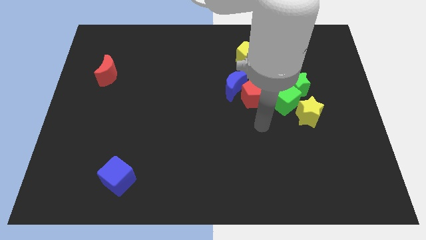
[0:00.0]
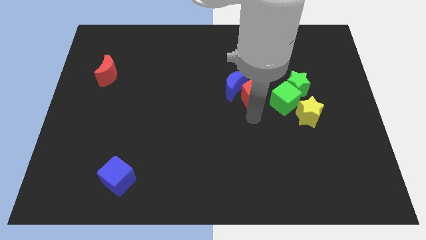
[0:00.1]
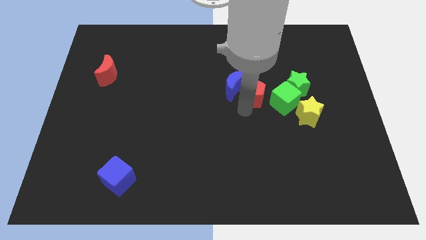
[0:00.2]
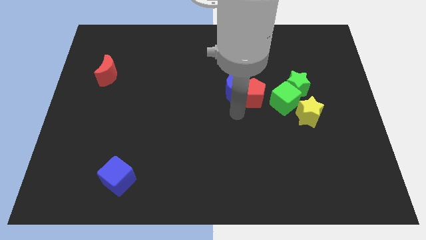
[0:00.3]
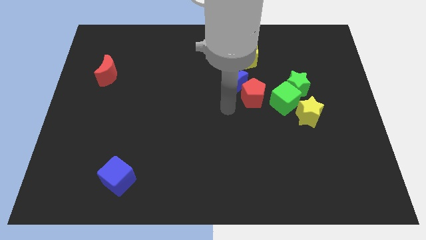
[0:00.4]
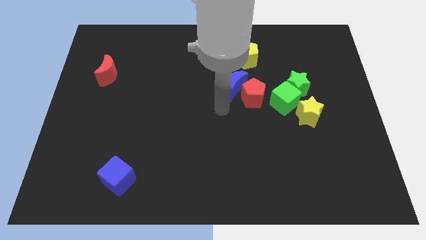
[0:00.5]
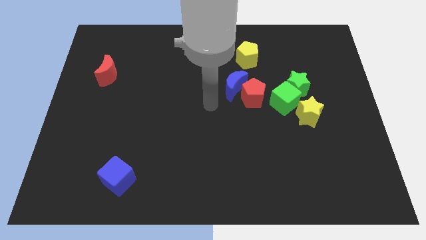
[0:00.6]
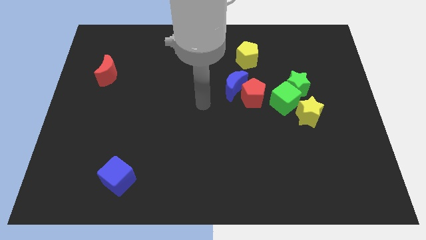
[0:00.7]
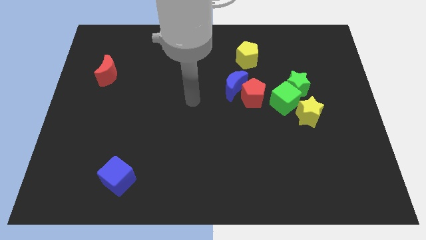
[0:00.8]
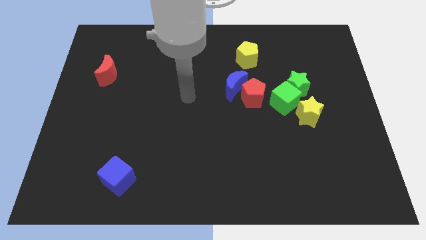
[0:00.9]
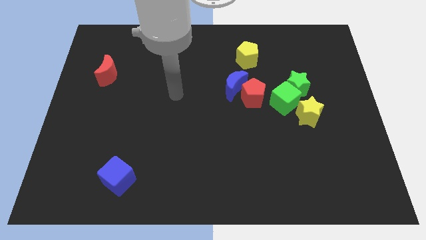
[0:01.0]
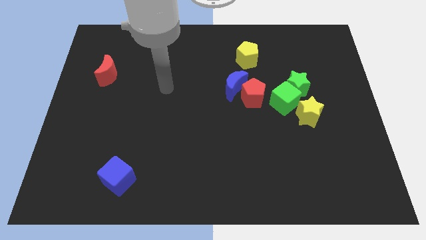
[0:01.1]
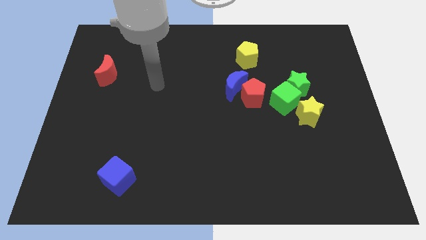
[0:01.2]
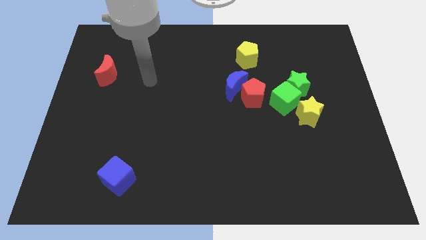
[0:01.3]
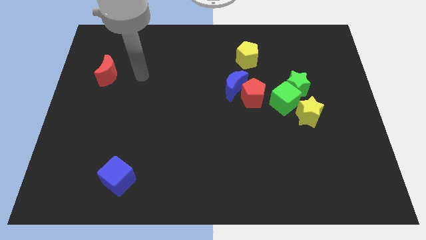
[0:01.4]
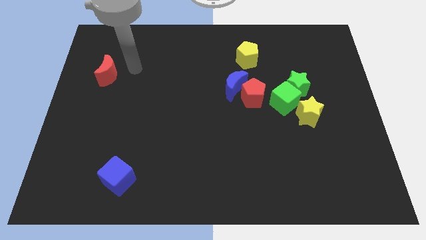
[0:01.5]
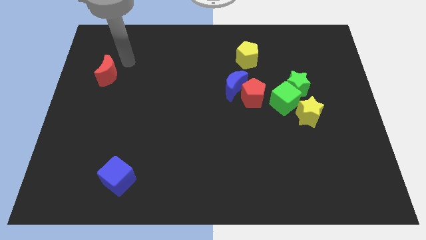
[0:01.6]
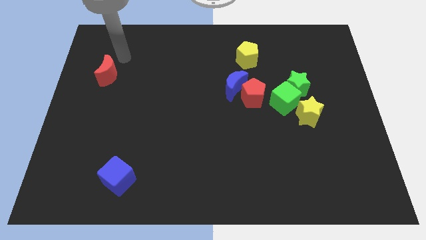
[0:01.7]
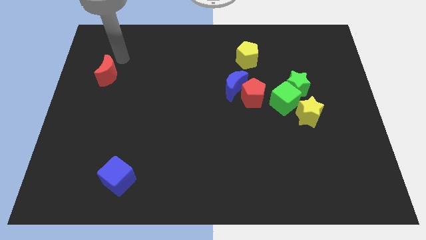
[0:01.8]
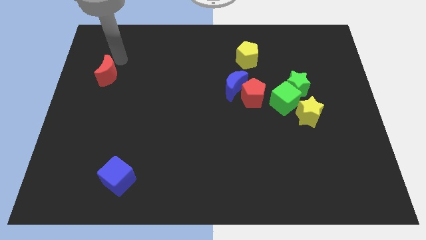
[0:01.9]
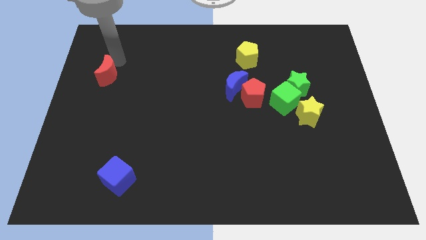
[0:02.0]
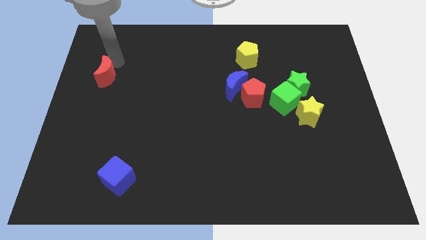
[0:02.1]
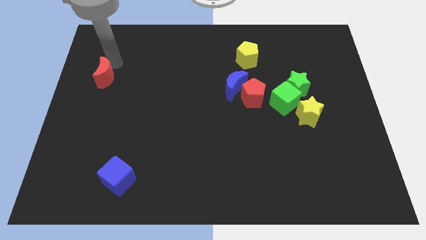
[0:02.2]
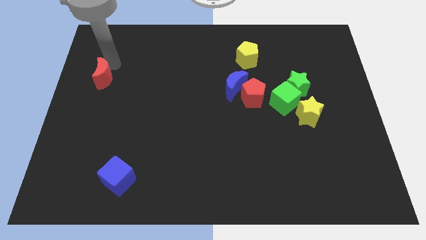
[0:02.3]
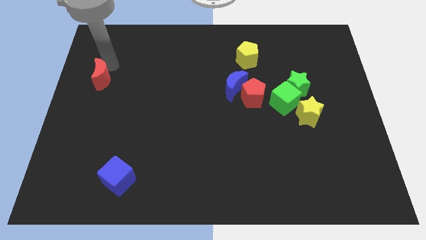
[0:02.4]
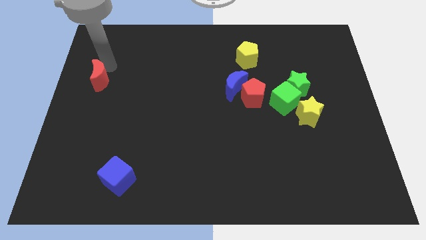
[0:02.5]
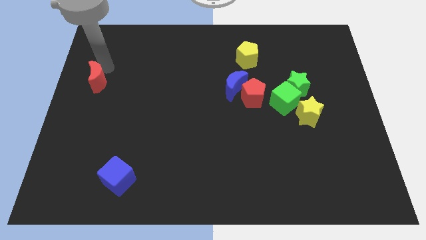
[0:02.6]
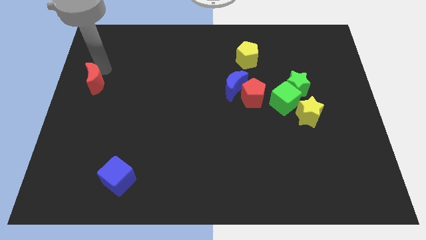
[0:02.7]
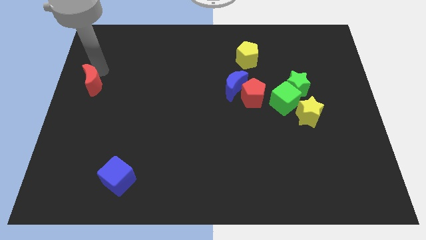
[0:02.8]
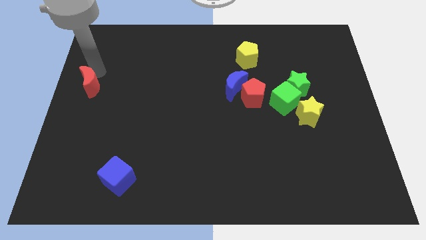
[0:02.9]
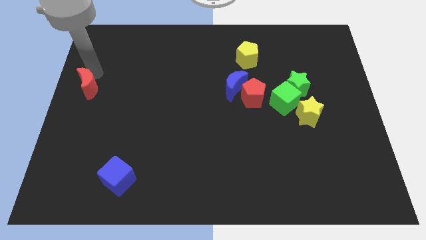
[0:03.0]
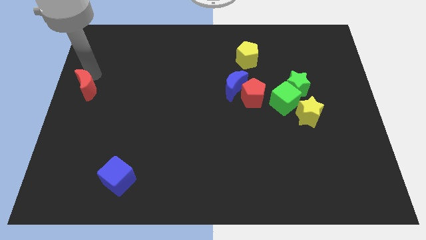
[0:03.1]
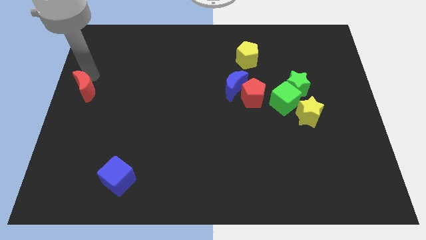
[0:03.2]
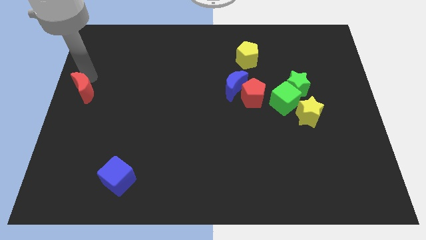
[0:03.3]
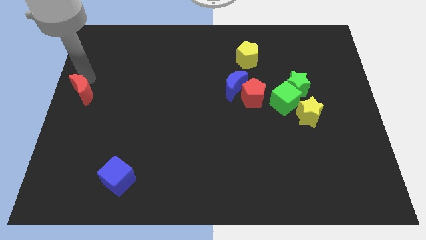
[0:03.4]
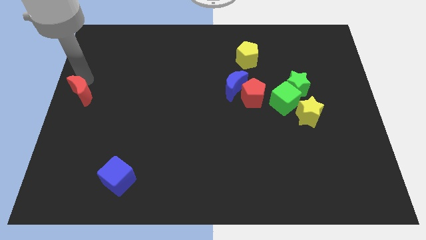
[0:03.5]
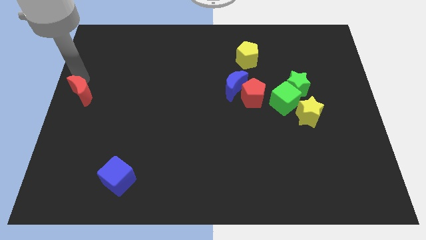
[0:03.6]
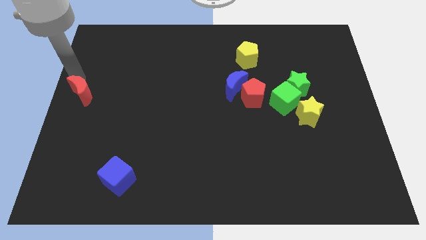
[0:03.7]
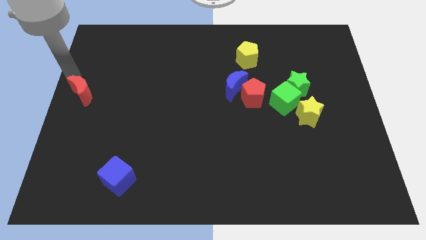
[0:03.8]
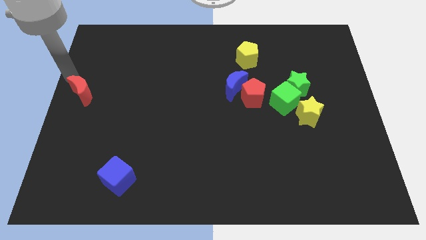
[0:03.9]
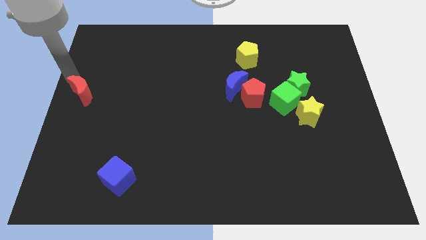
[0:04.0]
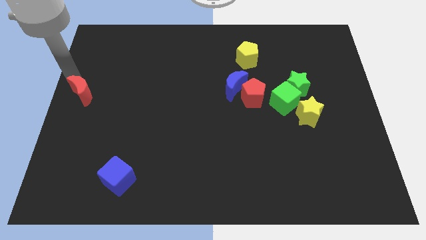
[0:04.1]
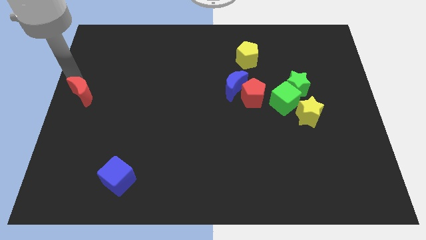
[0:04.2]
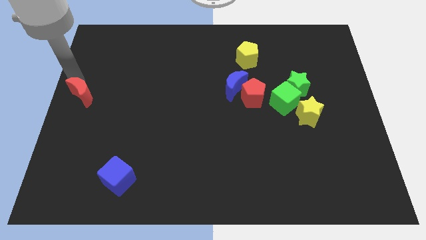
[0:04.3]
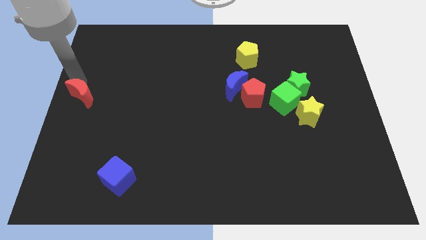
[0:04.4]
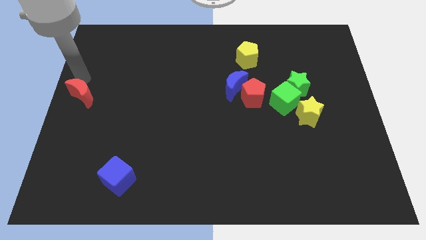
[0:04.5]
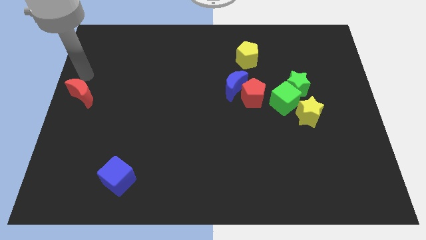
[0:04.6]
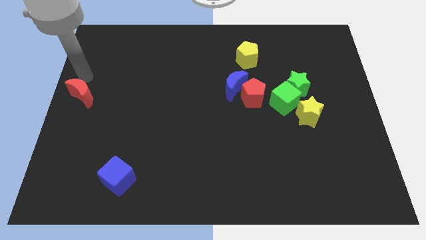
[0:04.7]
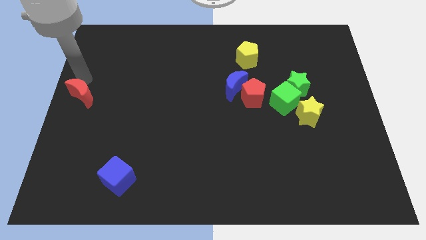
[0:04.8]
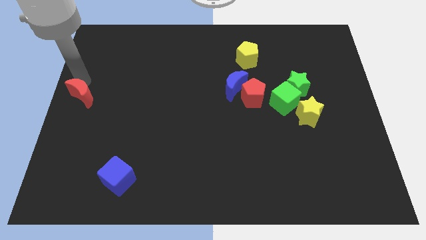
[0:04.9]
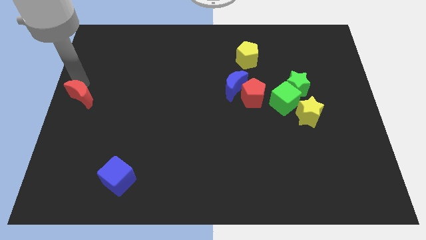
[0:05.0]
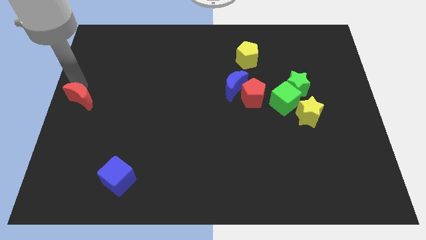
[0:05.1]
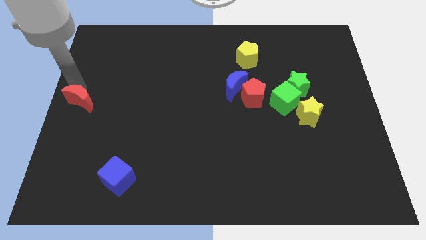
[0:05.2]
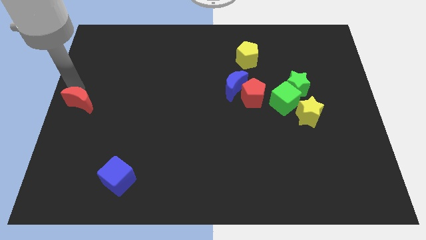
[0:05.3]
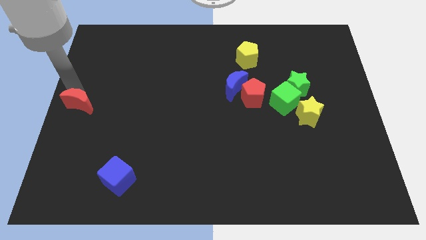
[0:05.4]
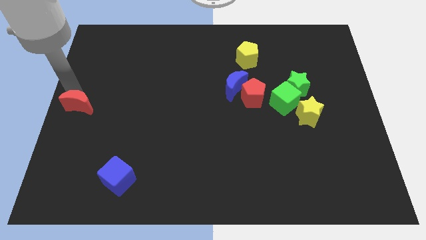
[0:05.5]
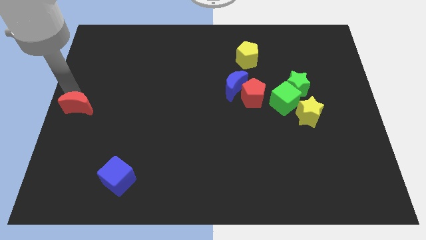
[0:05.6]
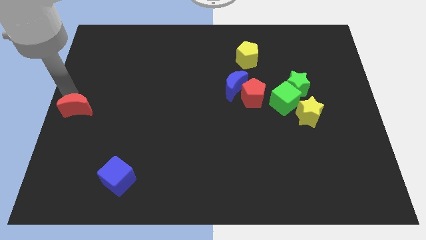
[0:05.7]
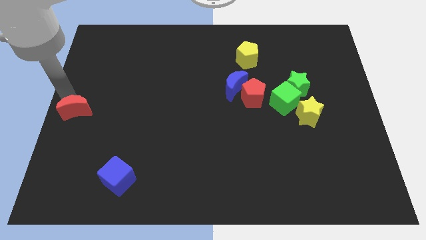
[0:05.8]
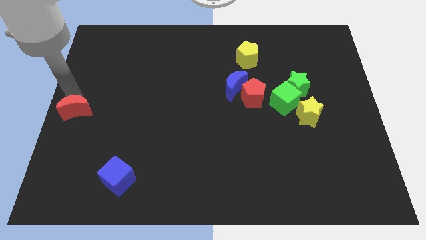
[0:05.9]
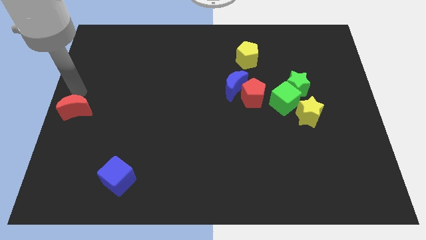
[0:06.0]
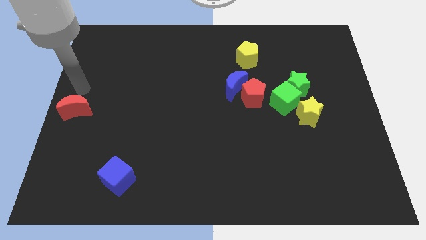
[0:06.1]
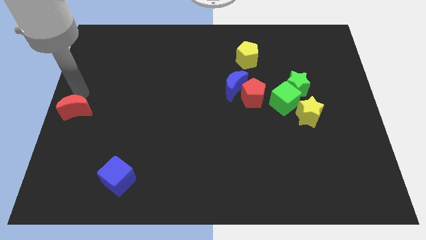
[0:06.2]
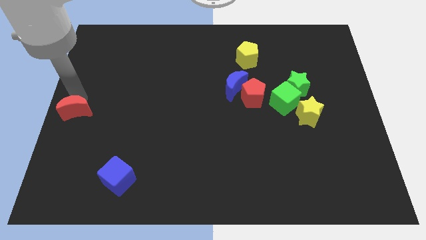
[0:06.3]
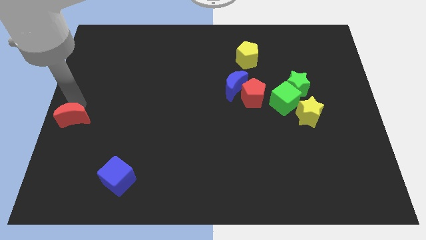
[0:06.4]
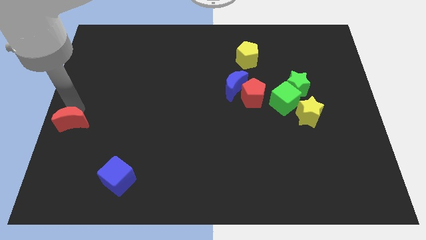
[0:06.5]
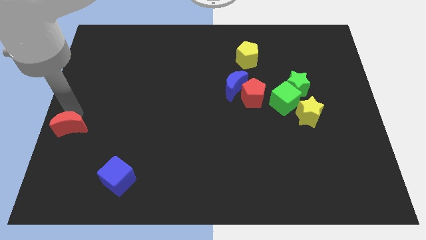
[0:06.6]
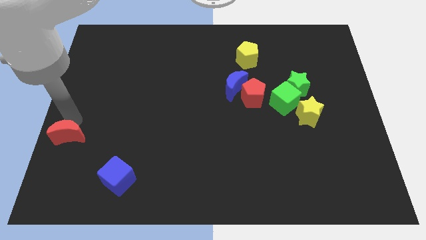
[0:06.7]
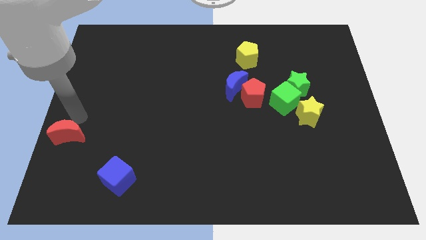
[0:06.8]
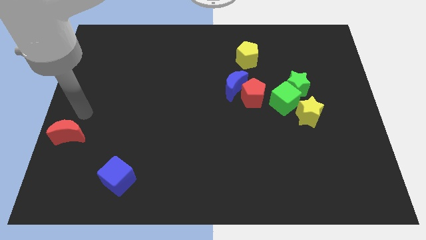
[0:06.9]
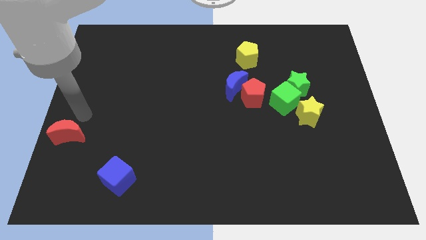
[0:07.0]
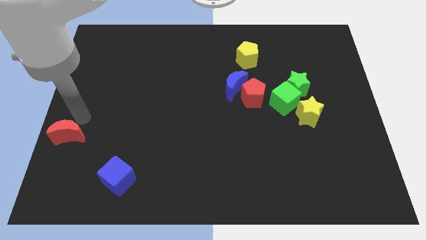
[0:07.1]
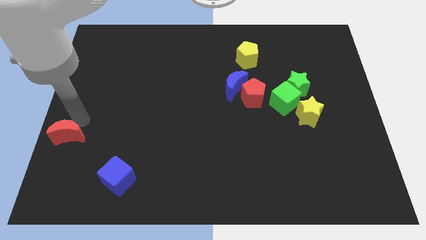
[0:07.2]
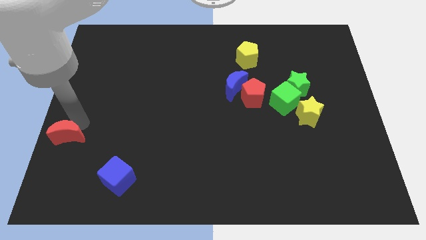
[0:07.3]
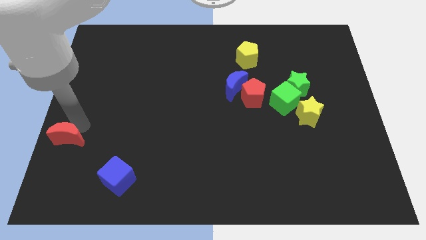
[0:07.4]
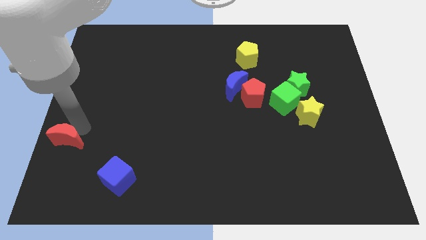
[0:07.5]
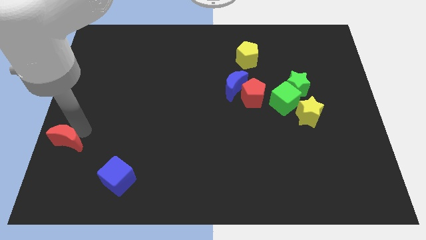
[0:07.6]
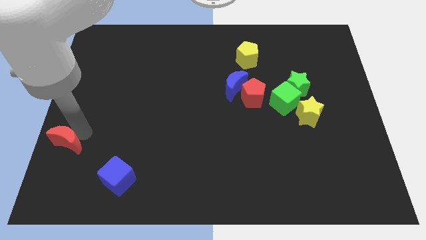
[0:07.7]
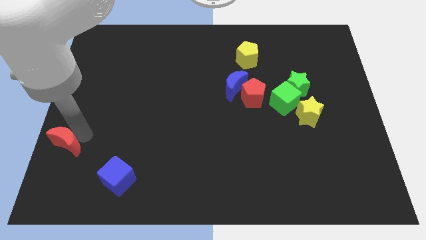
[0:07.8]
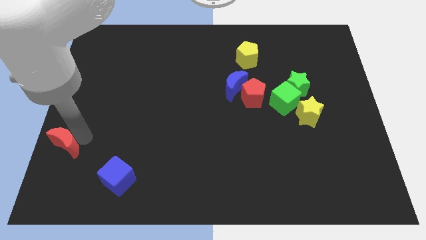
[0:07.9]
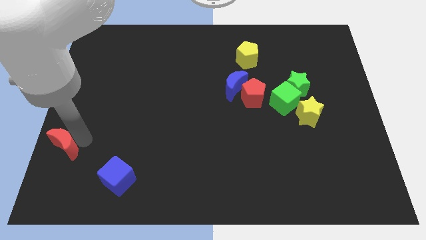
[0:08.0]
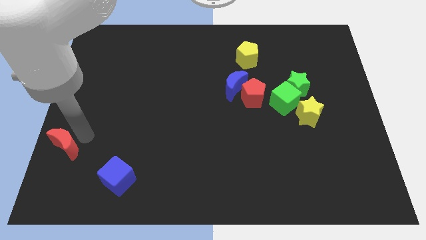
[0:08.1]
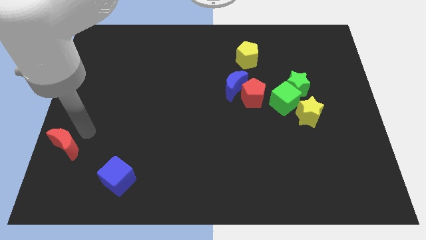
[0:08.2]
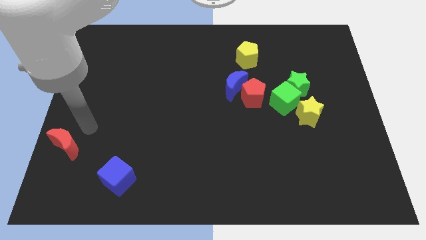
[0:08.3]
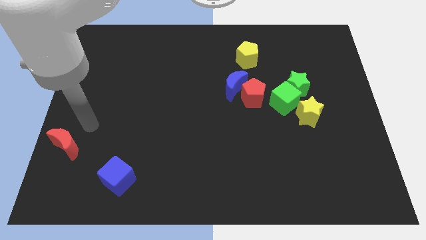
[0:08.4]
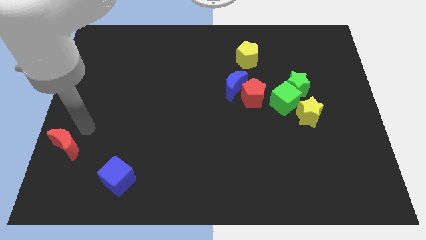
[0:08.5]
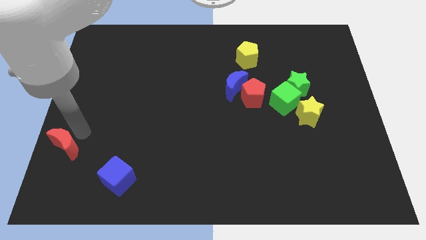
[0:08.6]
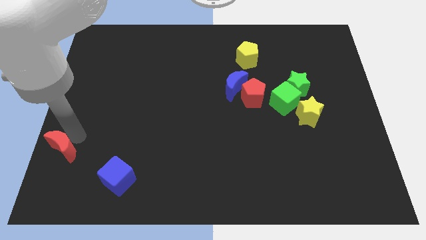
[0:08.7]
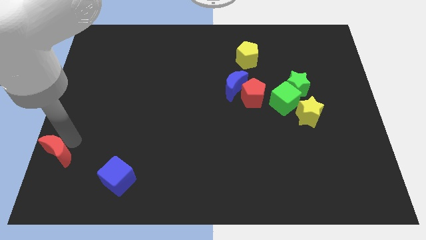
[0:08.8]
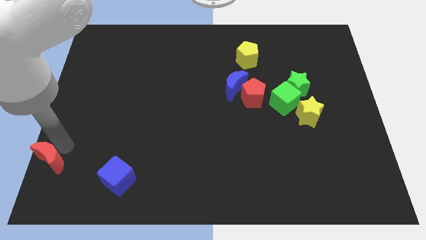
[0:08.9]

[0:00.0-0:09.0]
slide the red moon to the lower left corner
